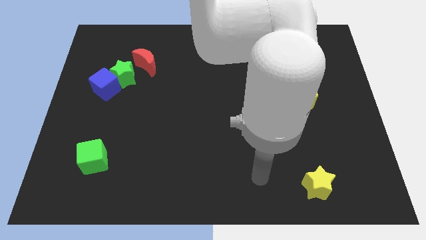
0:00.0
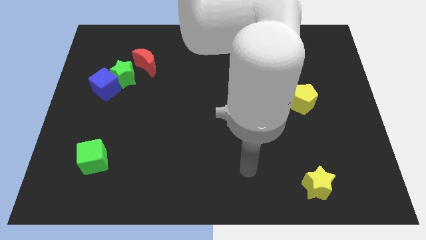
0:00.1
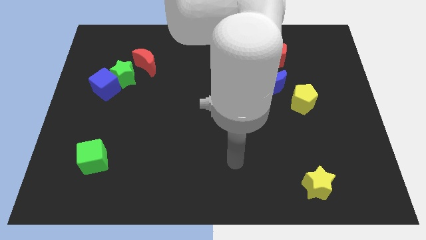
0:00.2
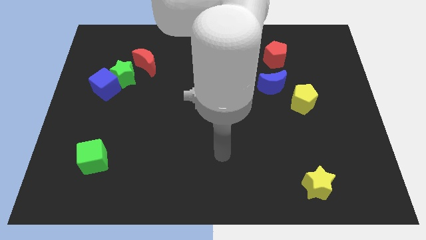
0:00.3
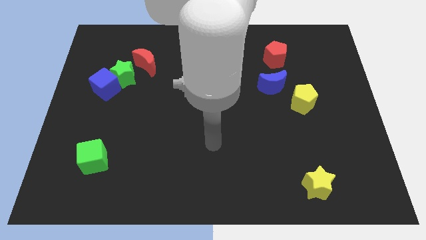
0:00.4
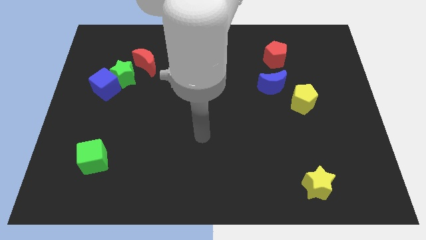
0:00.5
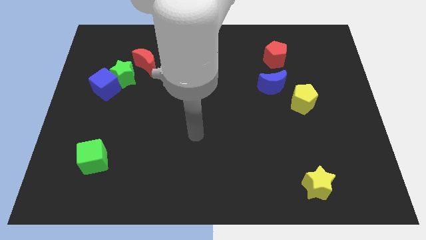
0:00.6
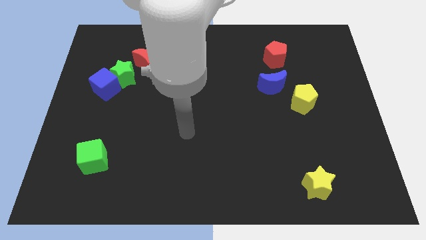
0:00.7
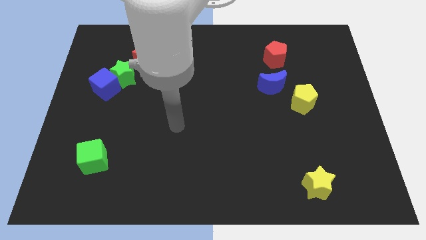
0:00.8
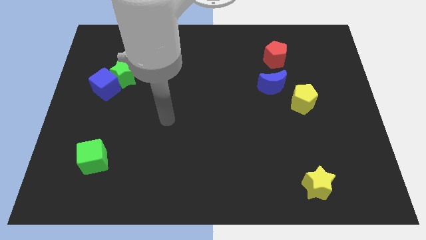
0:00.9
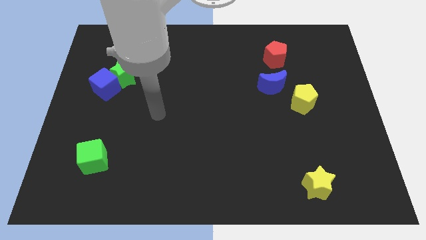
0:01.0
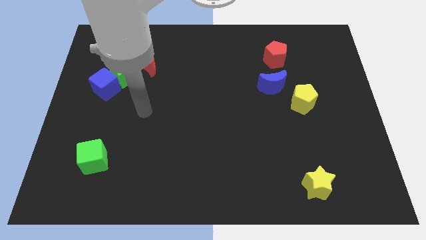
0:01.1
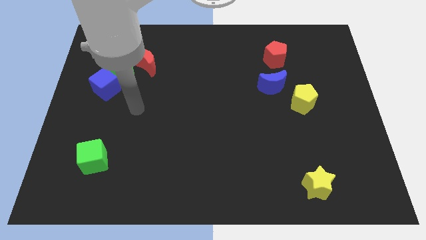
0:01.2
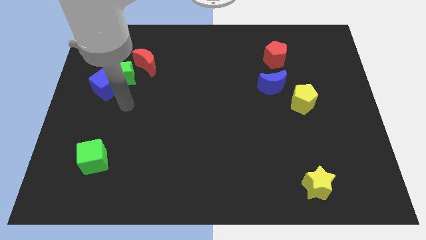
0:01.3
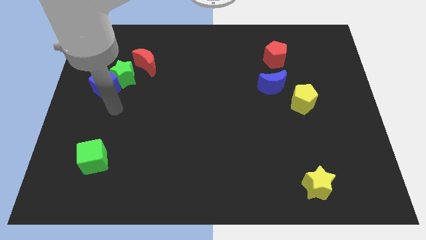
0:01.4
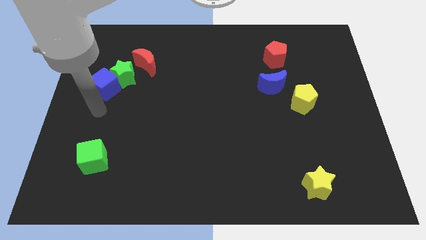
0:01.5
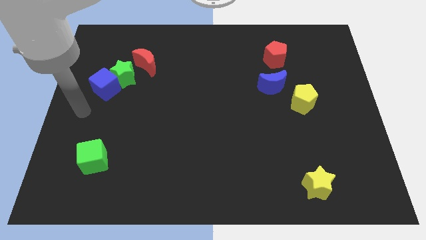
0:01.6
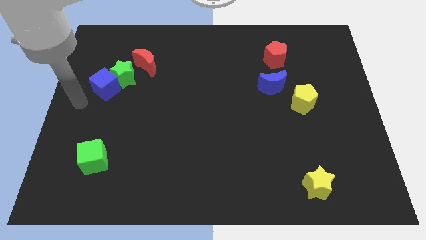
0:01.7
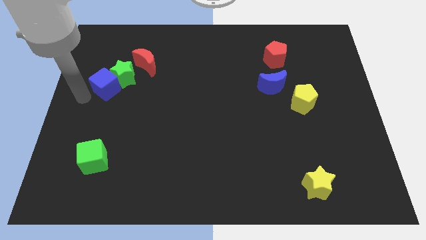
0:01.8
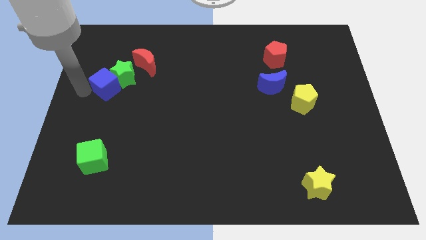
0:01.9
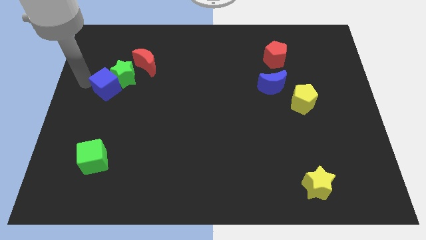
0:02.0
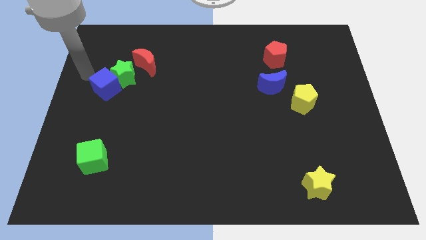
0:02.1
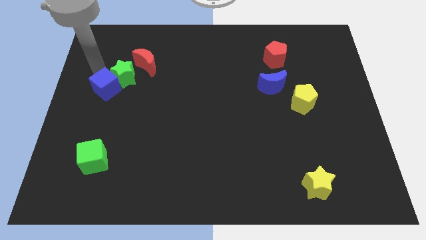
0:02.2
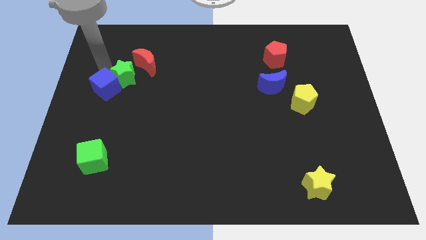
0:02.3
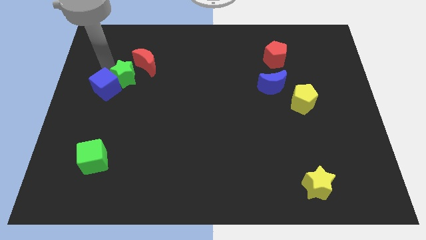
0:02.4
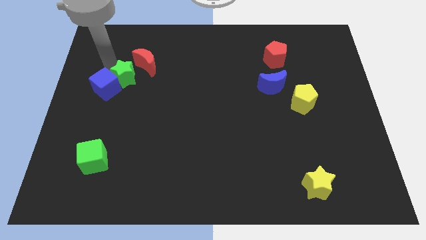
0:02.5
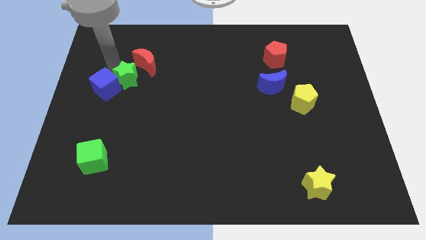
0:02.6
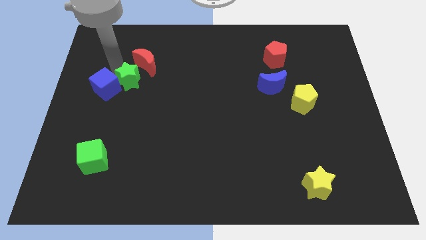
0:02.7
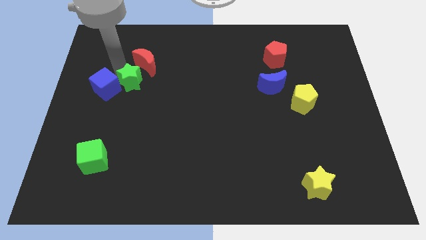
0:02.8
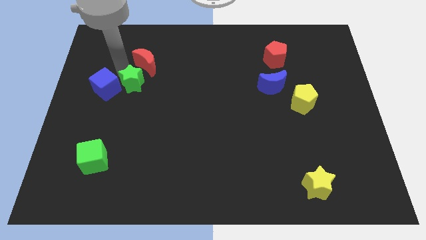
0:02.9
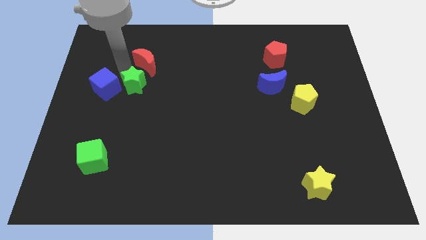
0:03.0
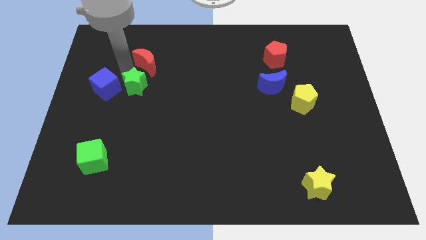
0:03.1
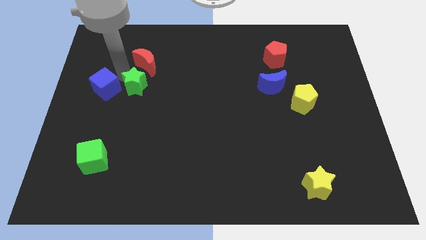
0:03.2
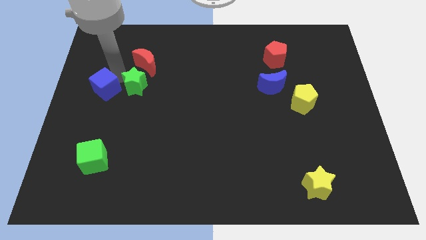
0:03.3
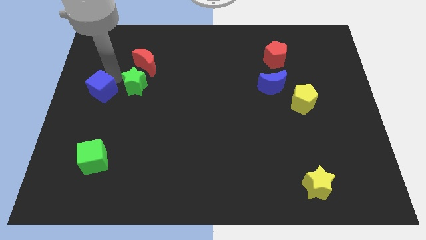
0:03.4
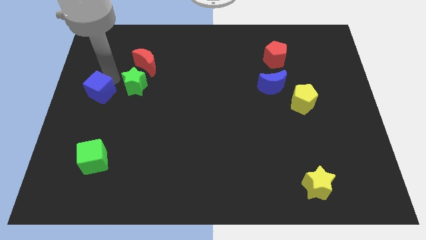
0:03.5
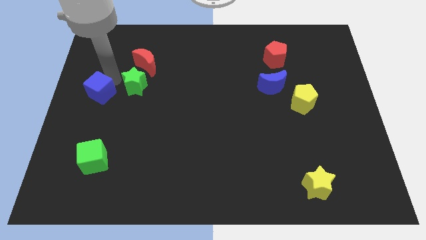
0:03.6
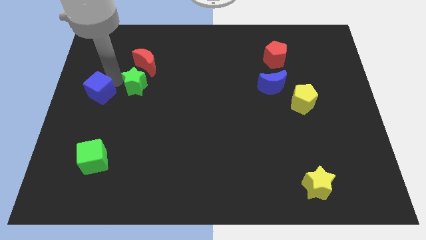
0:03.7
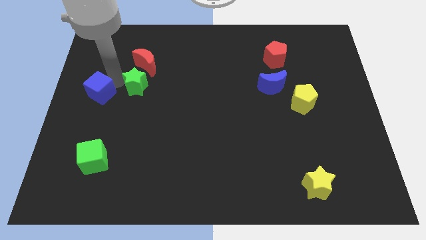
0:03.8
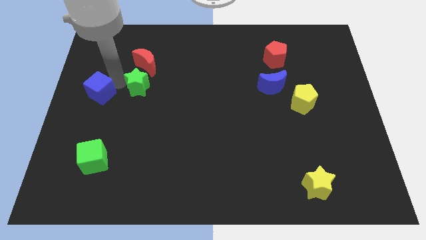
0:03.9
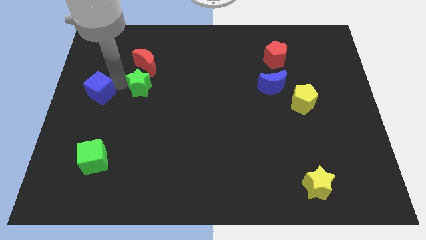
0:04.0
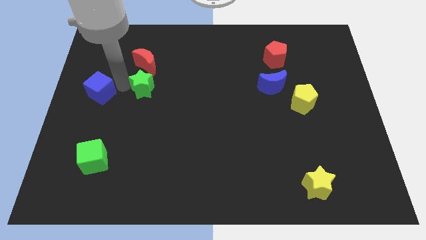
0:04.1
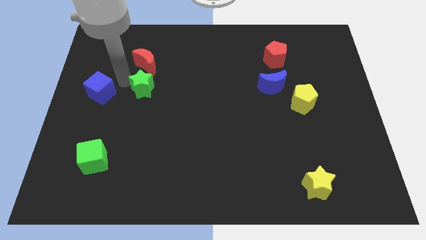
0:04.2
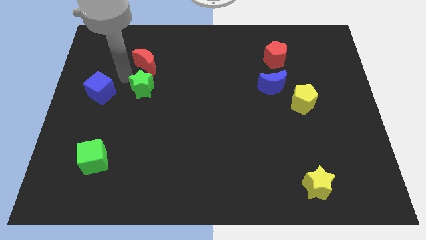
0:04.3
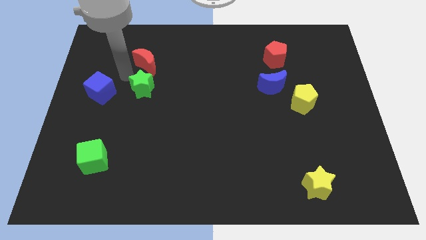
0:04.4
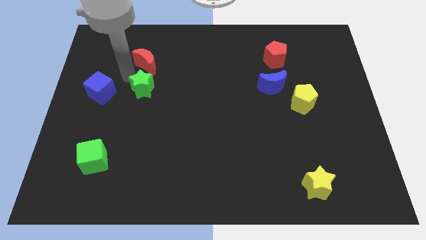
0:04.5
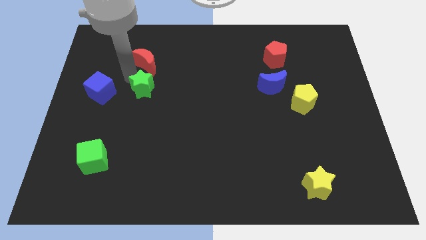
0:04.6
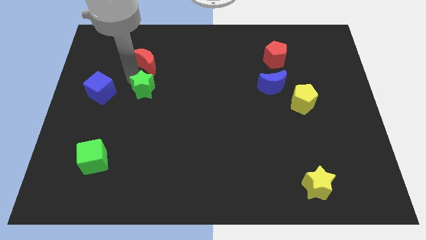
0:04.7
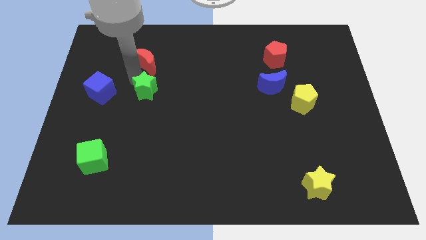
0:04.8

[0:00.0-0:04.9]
slide the green star somewhat down and to the right diagonally

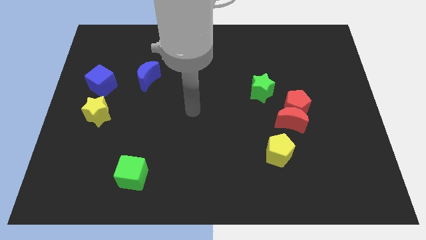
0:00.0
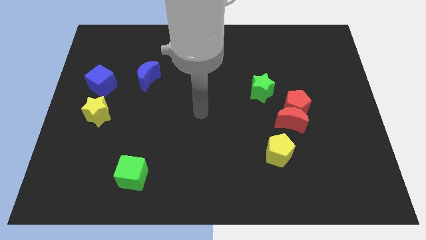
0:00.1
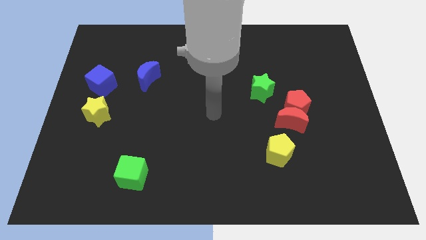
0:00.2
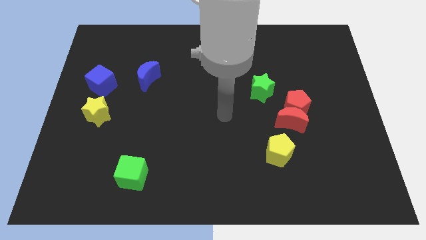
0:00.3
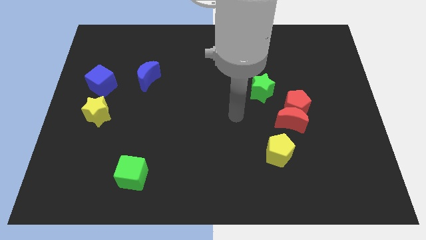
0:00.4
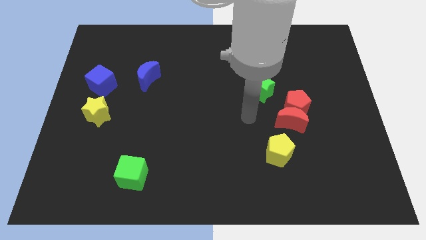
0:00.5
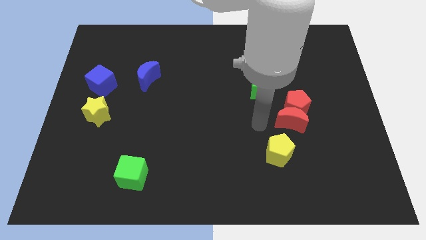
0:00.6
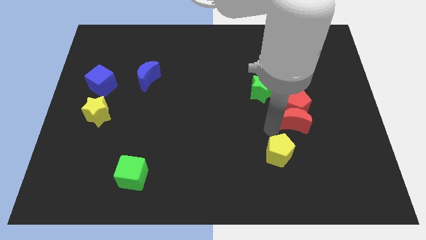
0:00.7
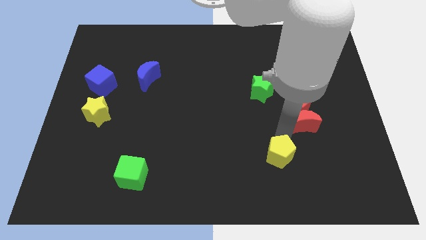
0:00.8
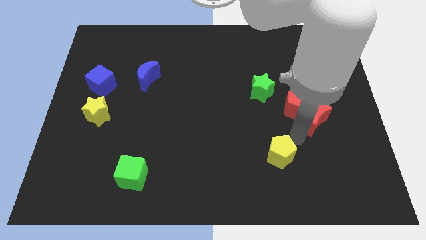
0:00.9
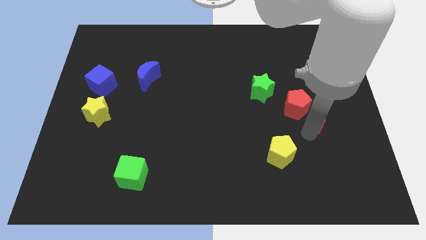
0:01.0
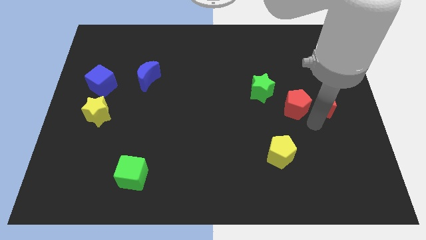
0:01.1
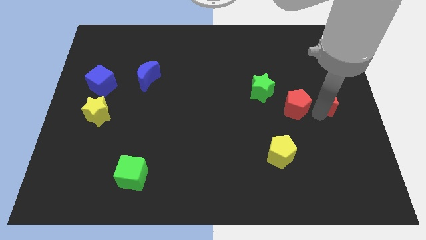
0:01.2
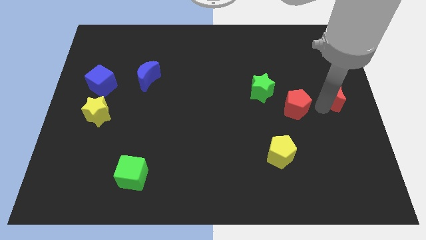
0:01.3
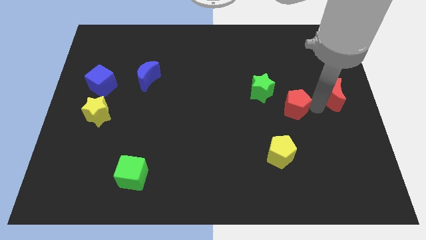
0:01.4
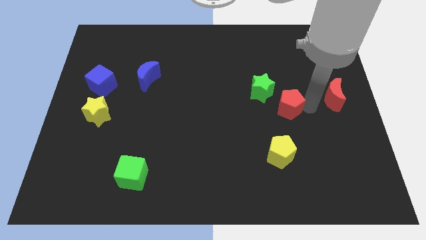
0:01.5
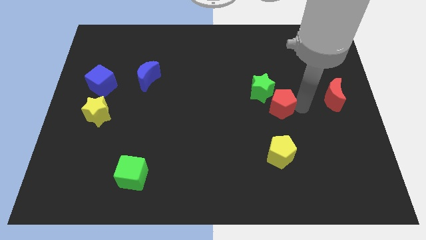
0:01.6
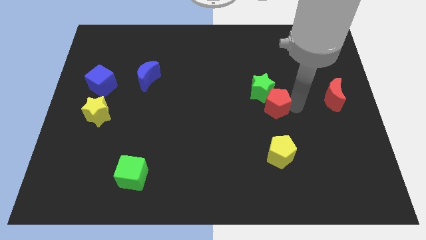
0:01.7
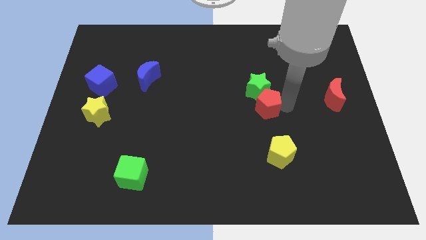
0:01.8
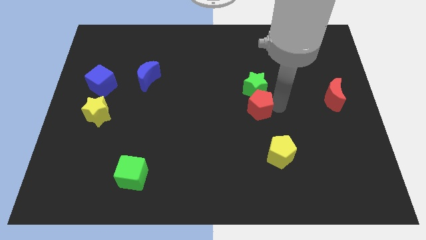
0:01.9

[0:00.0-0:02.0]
slightly push the red pentagon left

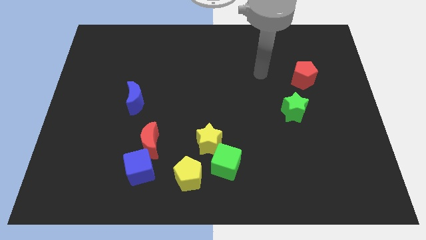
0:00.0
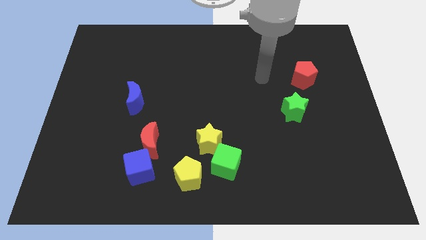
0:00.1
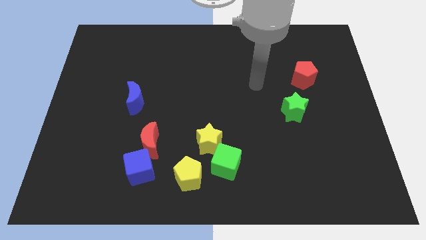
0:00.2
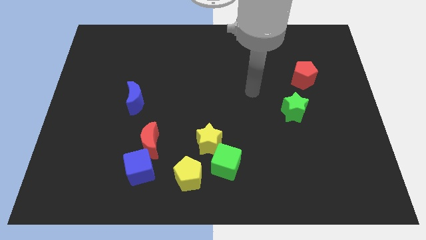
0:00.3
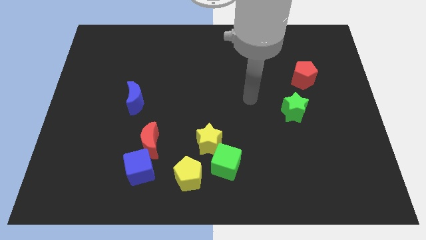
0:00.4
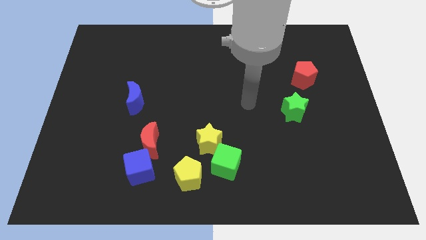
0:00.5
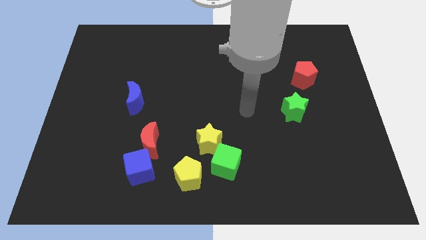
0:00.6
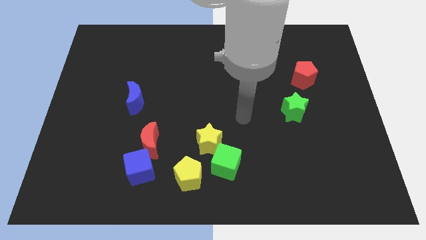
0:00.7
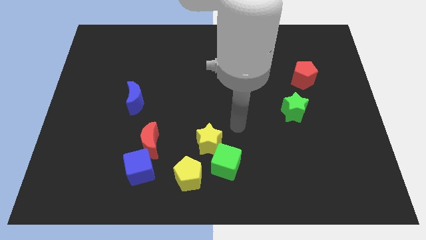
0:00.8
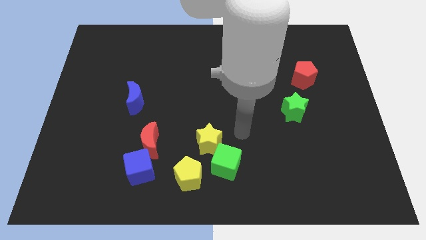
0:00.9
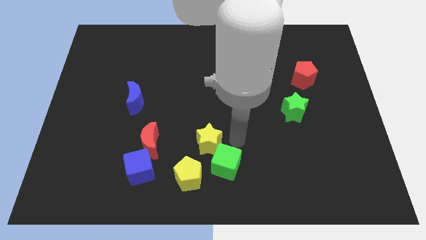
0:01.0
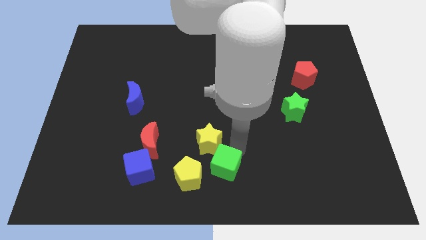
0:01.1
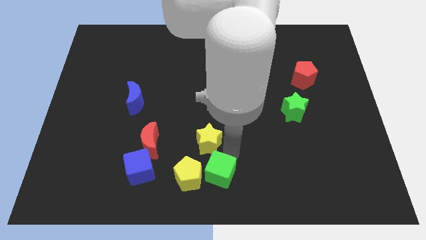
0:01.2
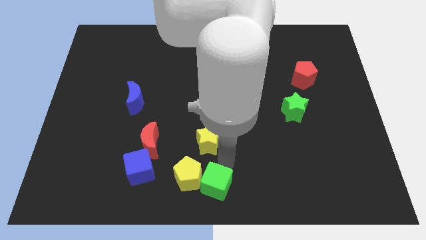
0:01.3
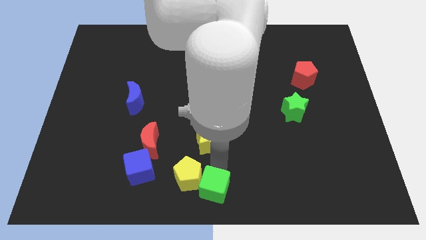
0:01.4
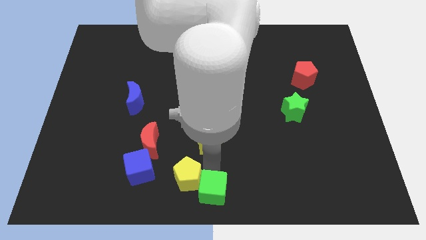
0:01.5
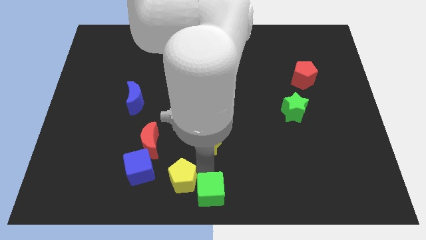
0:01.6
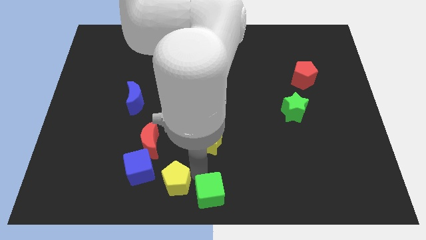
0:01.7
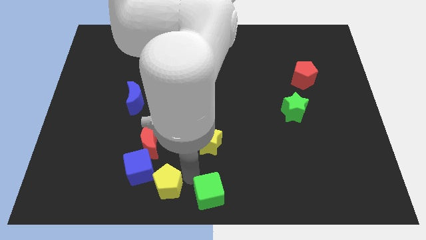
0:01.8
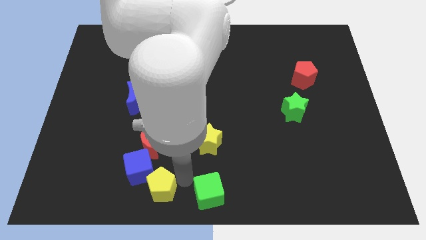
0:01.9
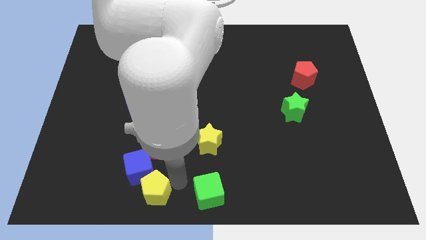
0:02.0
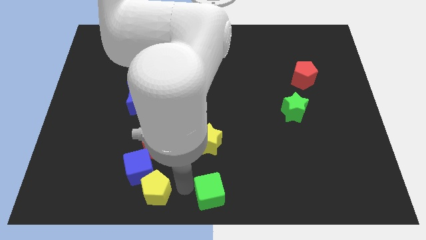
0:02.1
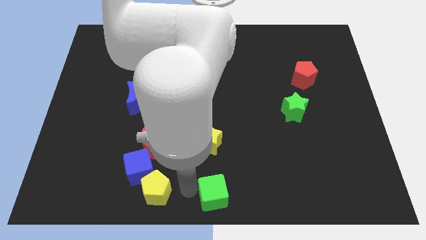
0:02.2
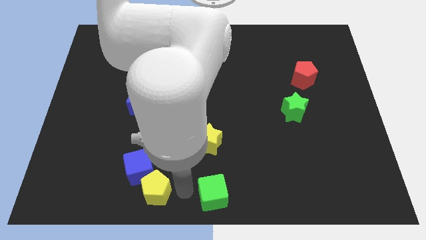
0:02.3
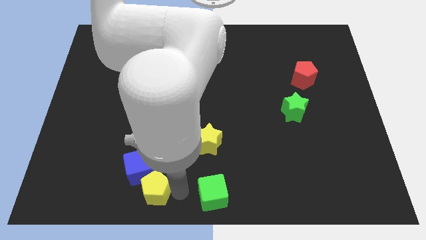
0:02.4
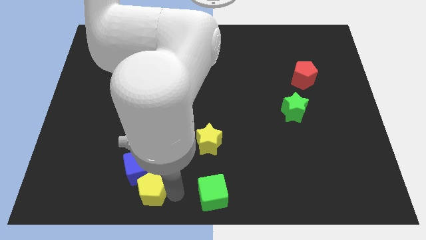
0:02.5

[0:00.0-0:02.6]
push the yellow pentagon left somewhat
